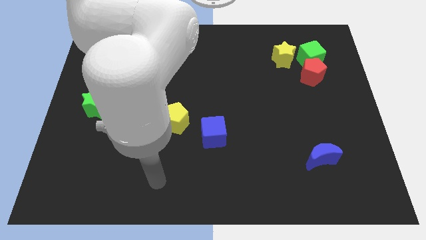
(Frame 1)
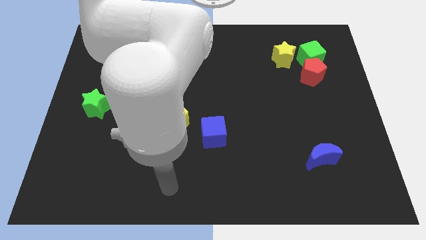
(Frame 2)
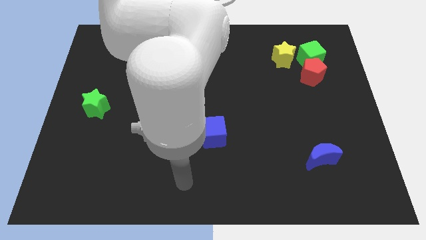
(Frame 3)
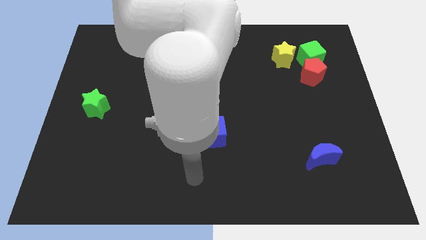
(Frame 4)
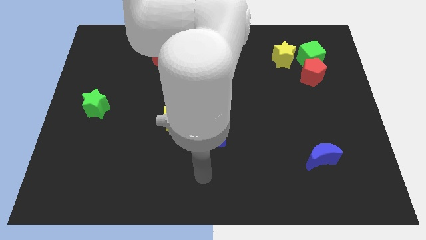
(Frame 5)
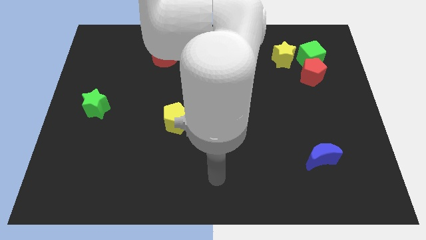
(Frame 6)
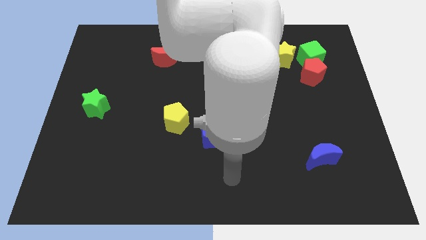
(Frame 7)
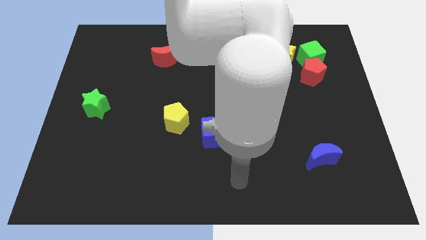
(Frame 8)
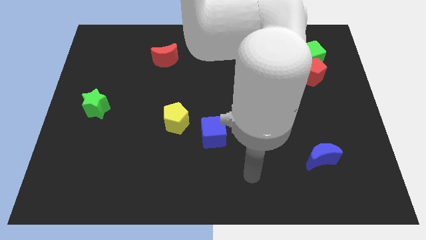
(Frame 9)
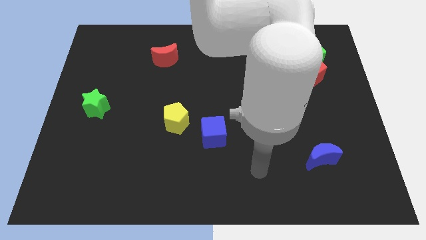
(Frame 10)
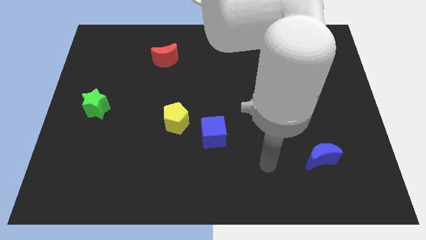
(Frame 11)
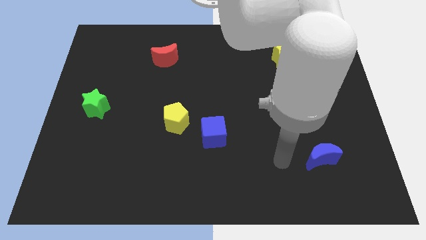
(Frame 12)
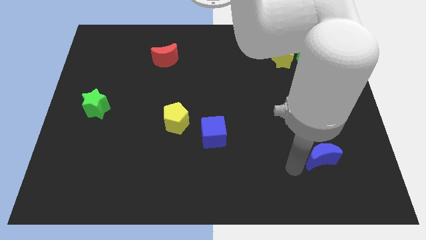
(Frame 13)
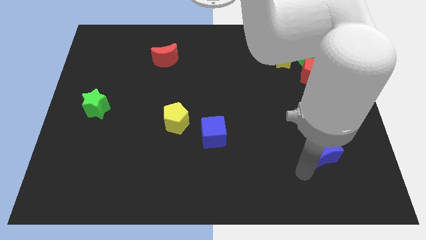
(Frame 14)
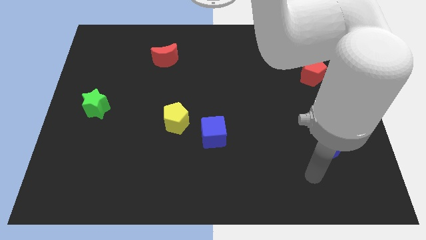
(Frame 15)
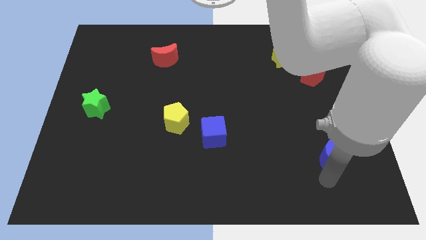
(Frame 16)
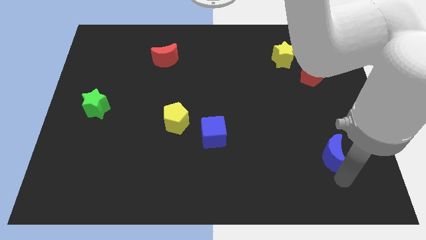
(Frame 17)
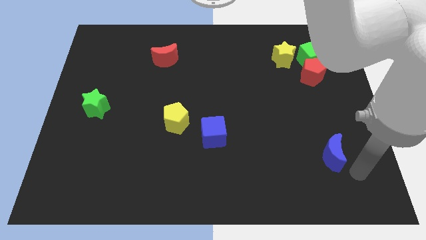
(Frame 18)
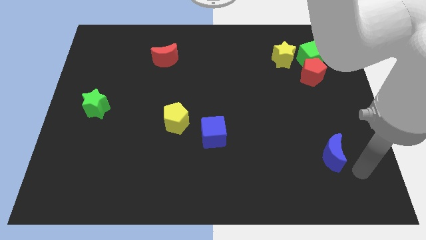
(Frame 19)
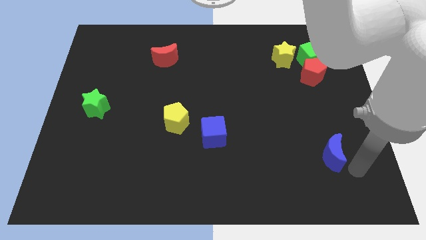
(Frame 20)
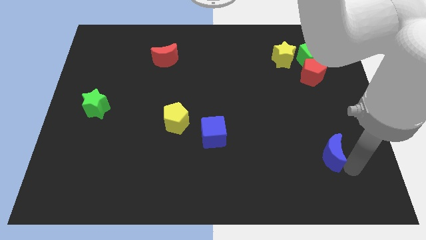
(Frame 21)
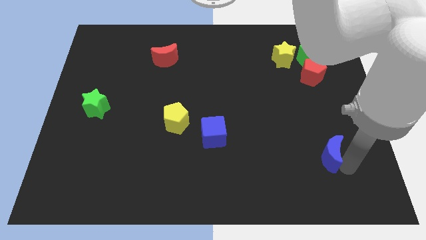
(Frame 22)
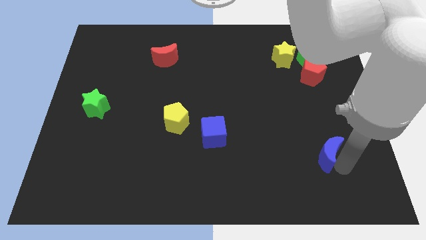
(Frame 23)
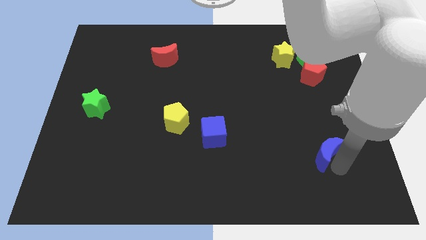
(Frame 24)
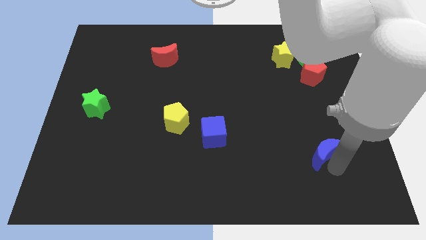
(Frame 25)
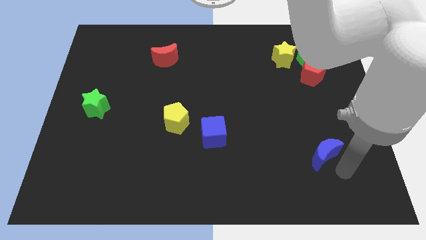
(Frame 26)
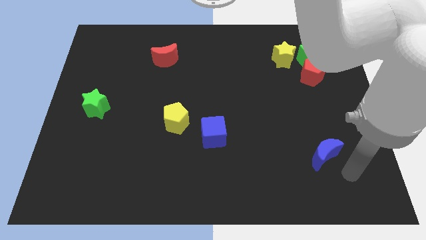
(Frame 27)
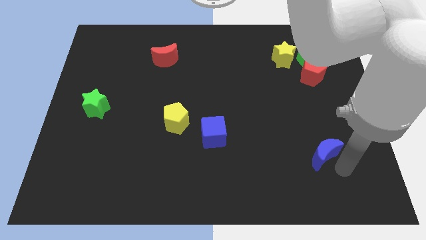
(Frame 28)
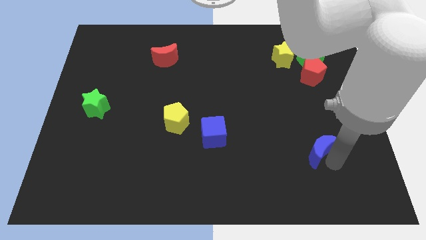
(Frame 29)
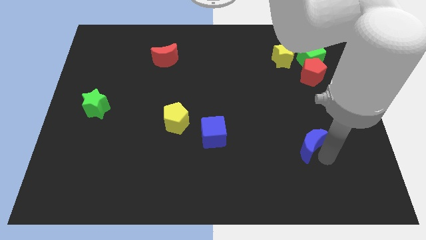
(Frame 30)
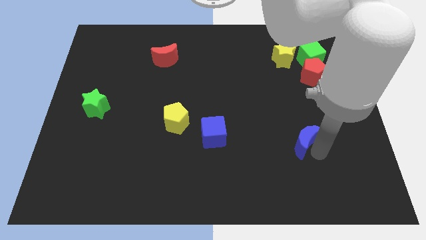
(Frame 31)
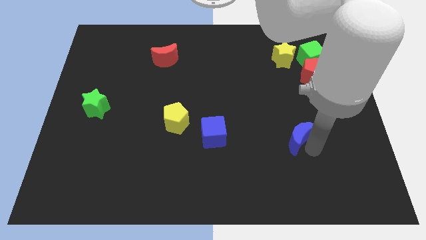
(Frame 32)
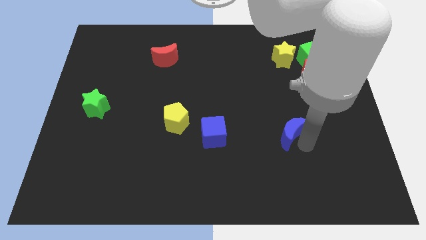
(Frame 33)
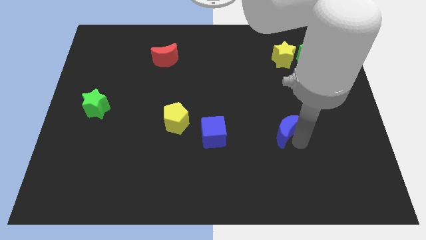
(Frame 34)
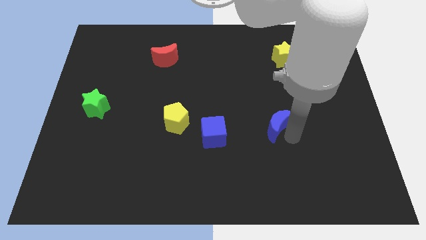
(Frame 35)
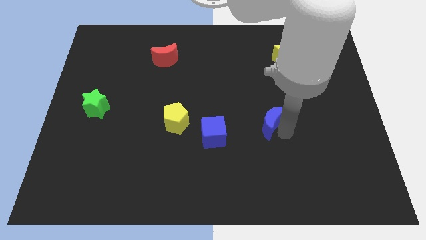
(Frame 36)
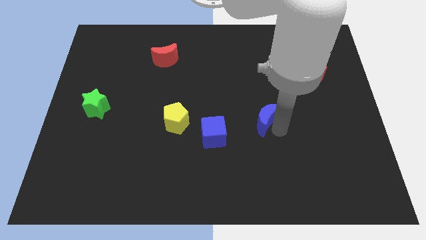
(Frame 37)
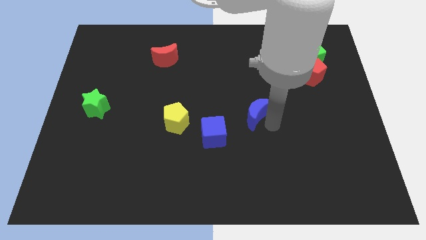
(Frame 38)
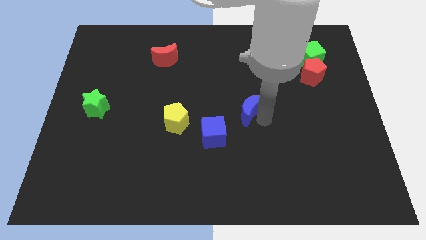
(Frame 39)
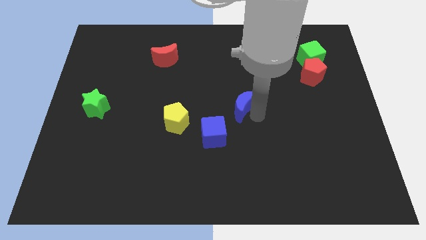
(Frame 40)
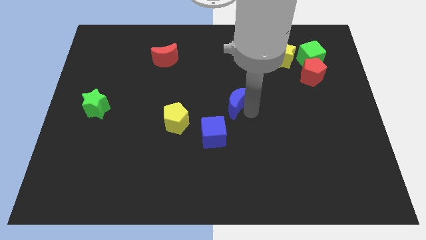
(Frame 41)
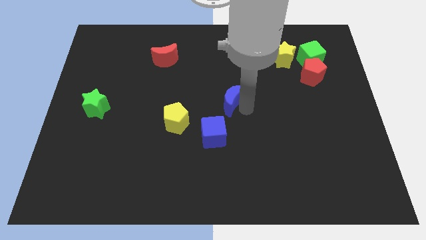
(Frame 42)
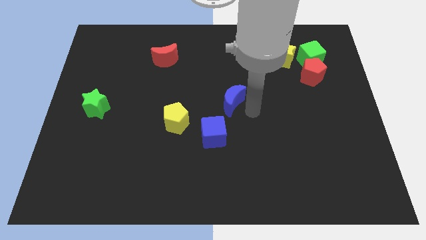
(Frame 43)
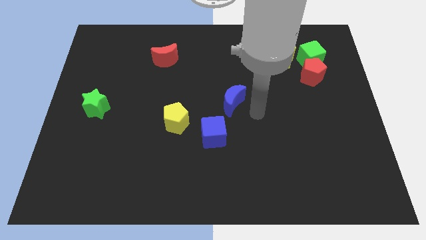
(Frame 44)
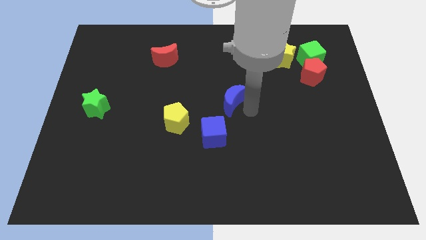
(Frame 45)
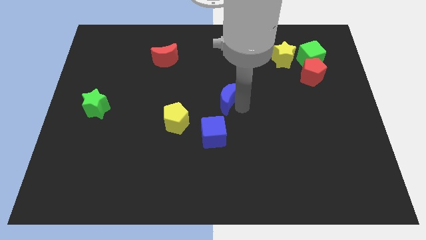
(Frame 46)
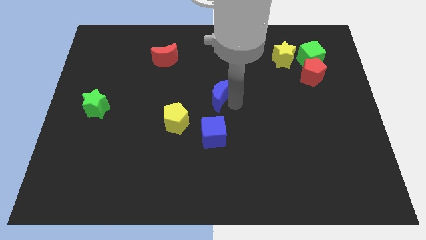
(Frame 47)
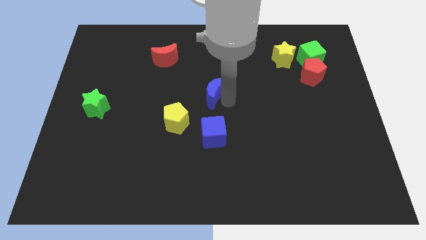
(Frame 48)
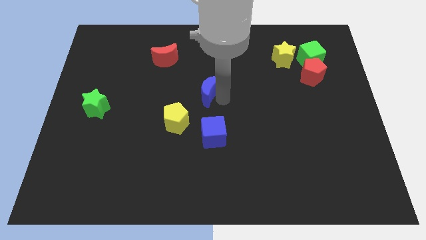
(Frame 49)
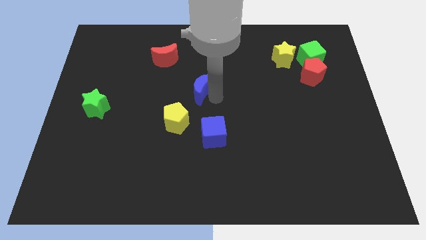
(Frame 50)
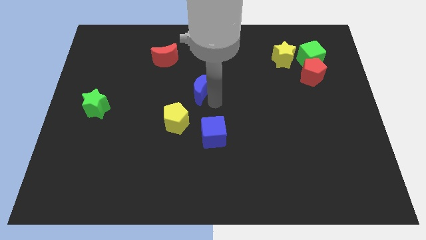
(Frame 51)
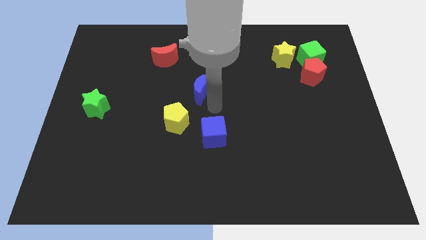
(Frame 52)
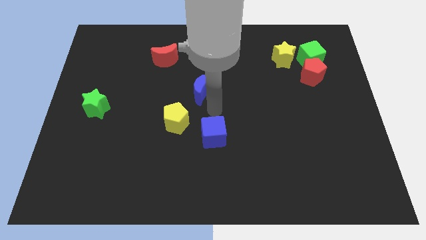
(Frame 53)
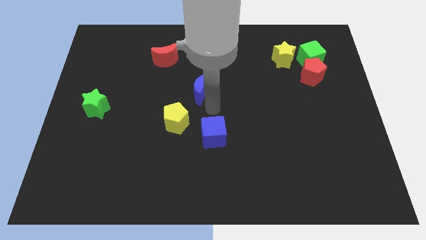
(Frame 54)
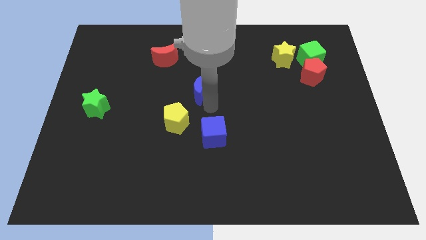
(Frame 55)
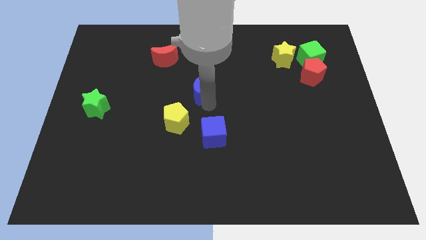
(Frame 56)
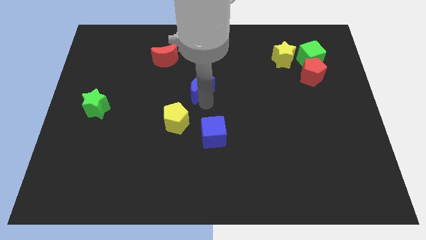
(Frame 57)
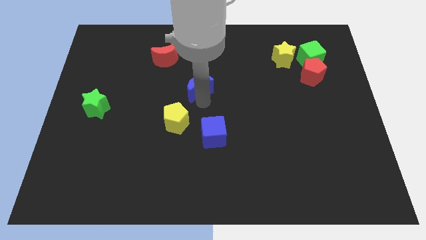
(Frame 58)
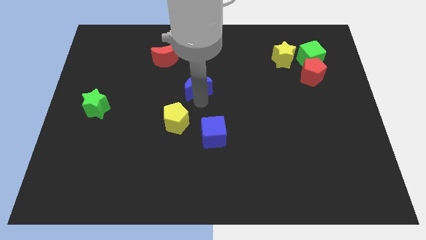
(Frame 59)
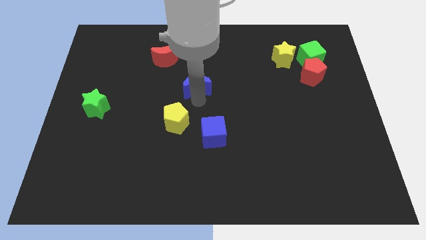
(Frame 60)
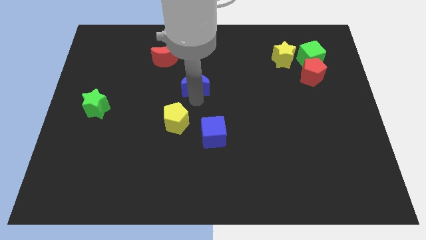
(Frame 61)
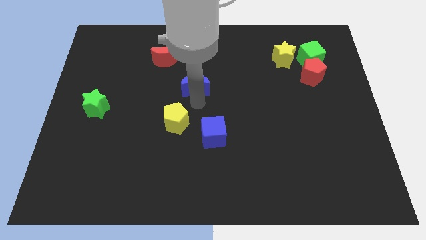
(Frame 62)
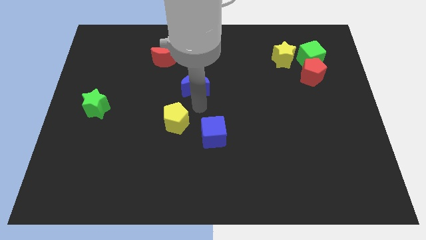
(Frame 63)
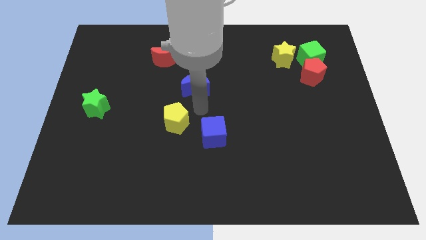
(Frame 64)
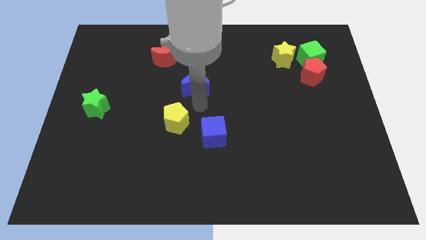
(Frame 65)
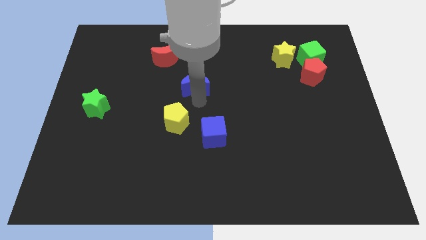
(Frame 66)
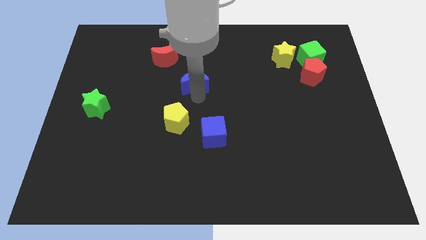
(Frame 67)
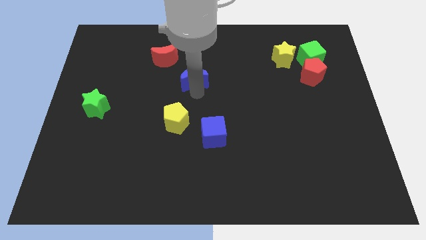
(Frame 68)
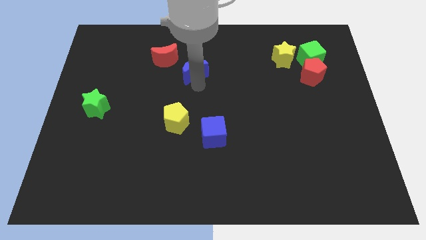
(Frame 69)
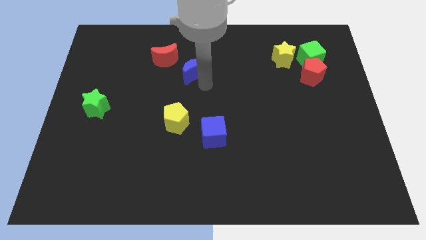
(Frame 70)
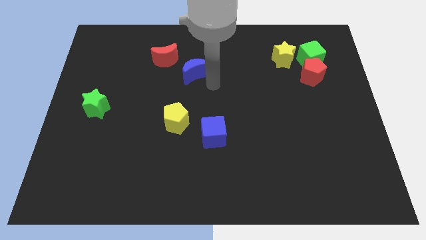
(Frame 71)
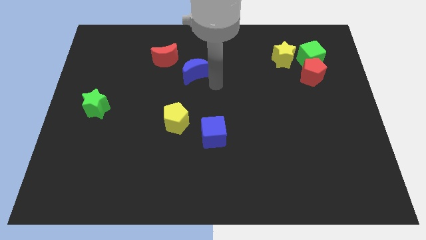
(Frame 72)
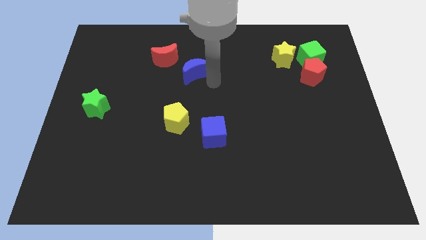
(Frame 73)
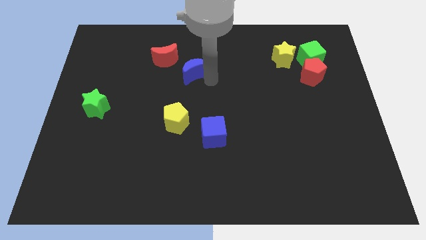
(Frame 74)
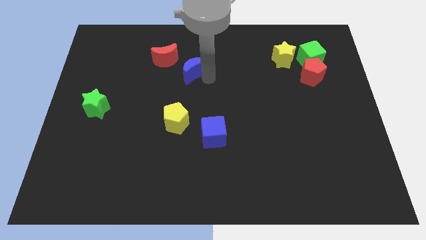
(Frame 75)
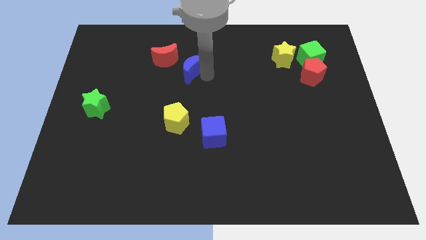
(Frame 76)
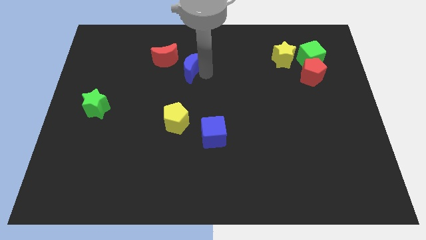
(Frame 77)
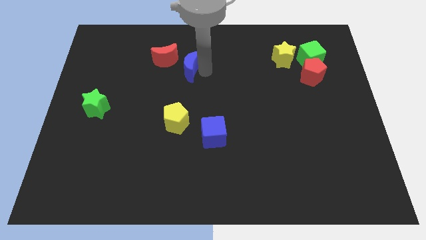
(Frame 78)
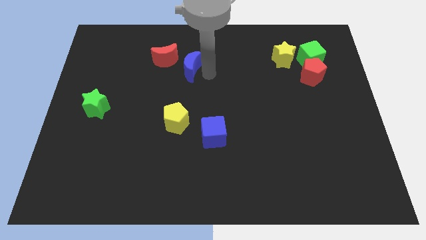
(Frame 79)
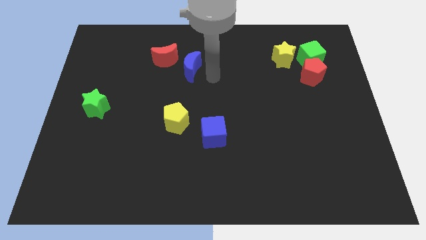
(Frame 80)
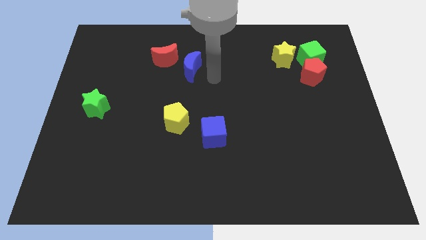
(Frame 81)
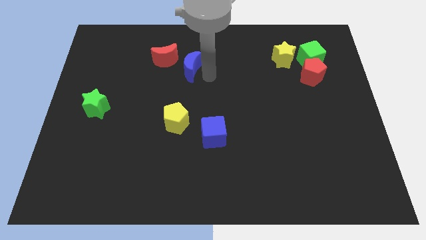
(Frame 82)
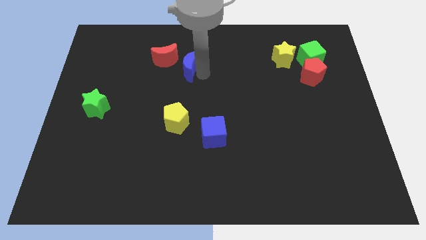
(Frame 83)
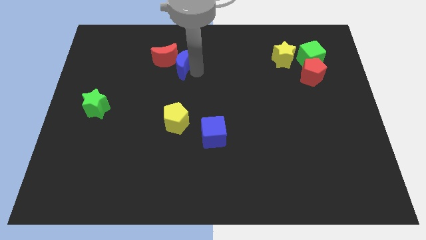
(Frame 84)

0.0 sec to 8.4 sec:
slide the blue moon to the red moon
